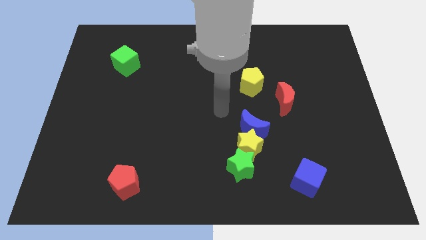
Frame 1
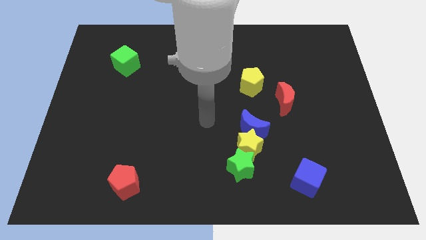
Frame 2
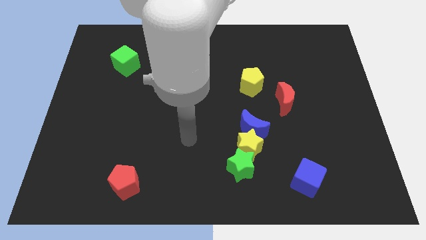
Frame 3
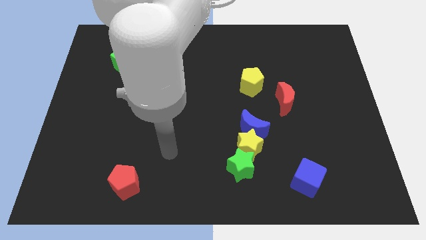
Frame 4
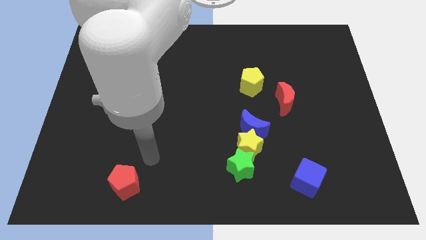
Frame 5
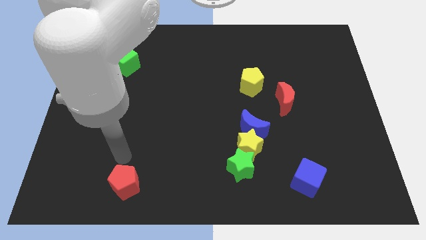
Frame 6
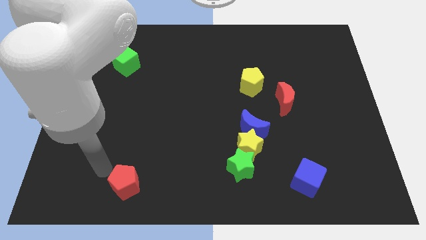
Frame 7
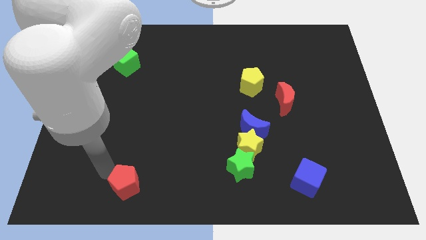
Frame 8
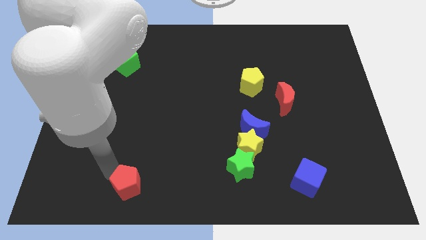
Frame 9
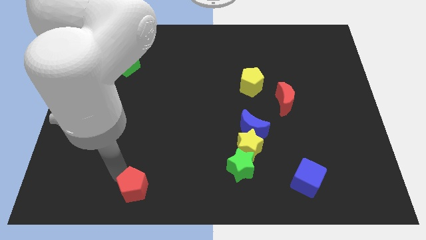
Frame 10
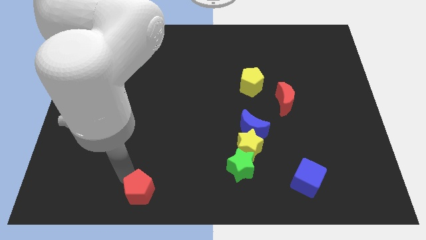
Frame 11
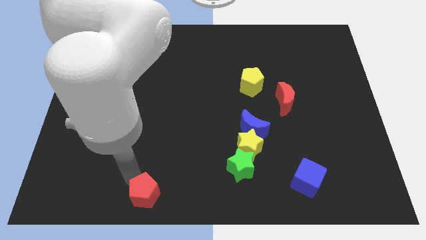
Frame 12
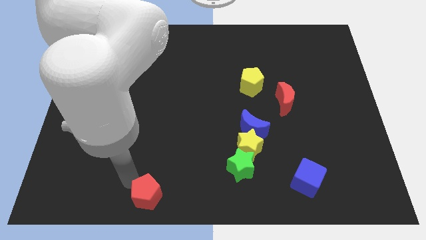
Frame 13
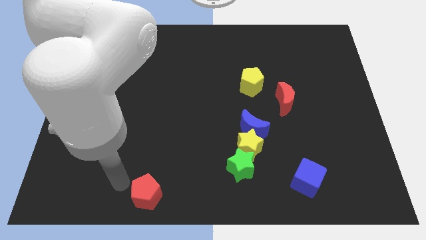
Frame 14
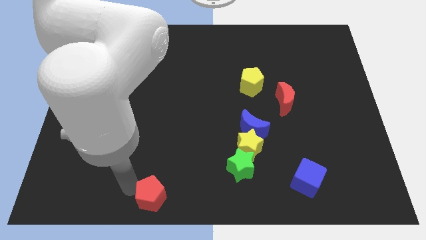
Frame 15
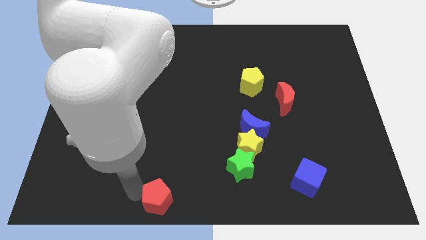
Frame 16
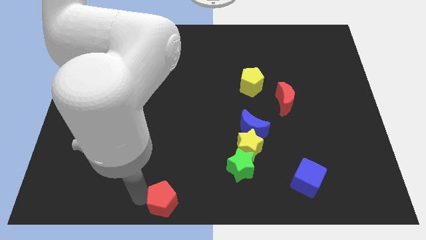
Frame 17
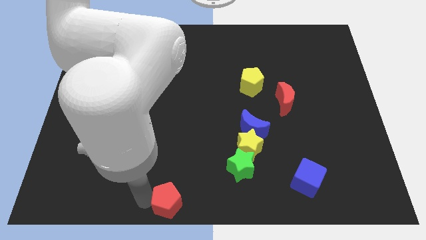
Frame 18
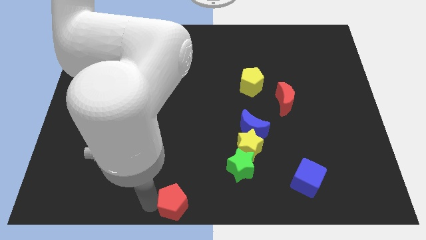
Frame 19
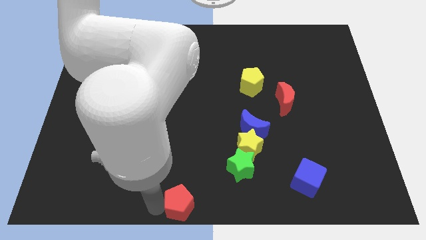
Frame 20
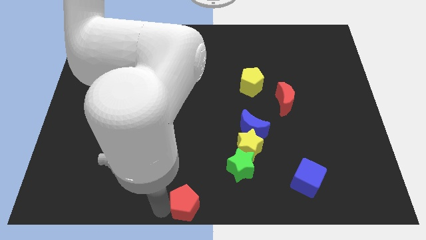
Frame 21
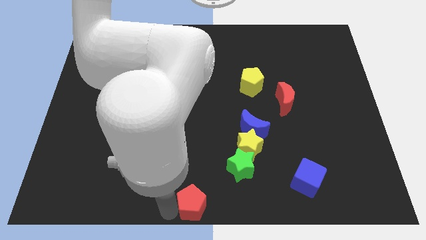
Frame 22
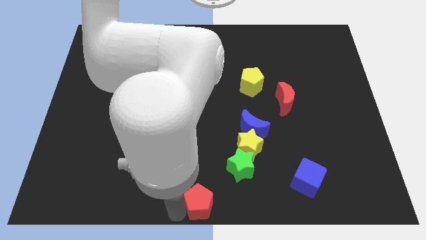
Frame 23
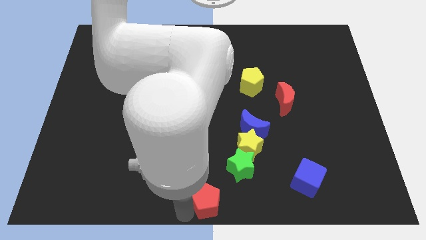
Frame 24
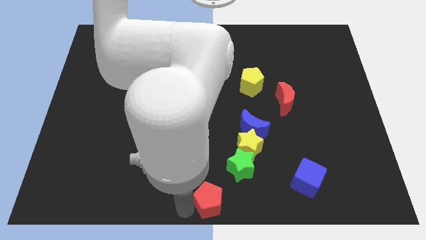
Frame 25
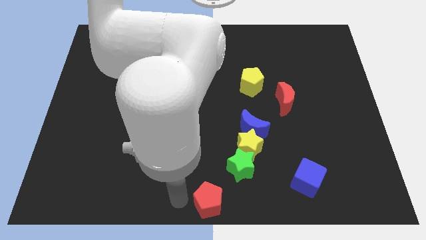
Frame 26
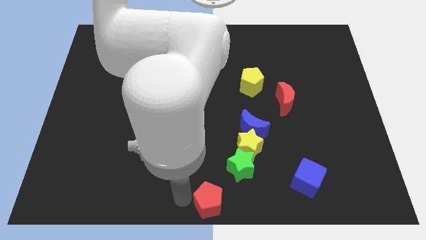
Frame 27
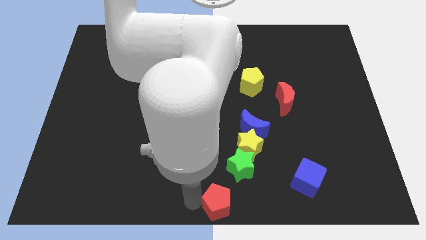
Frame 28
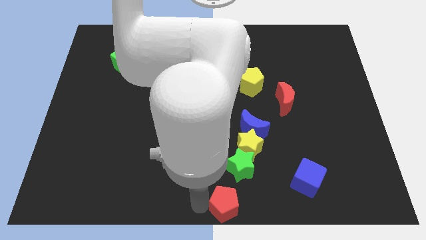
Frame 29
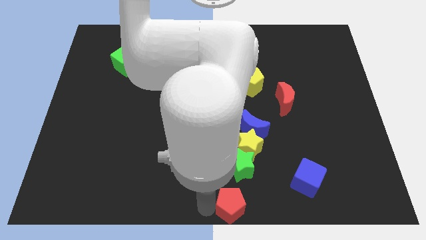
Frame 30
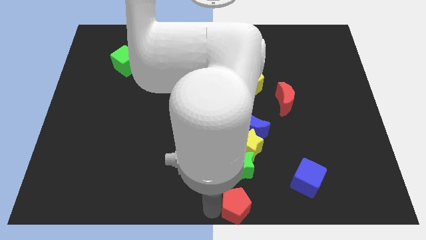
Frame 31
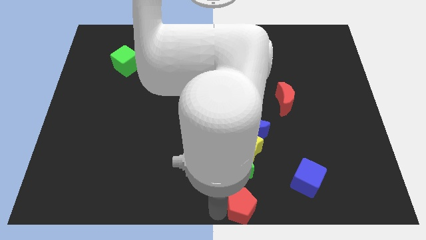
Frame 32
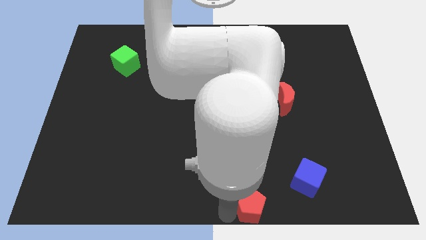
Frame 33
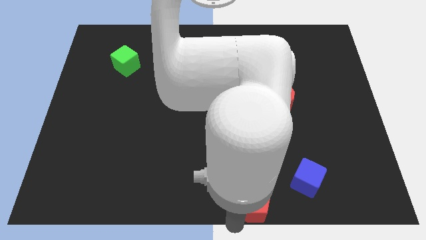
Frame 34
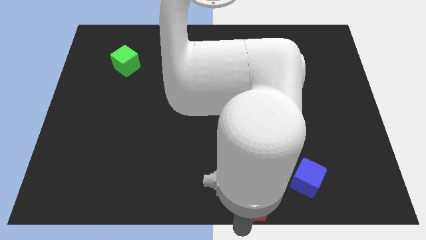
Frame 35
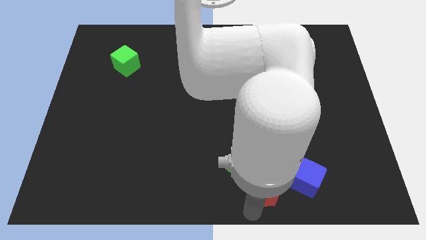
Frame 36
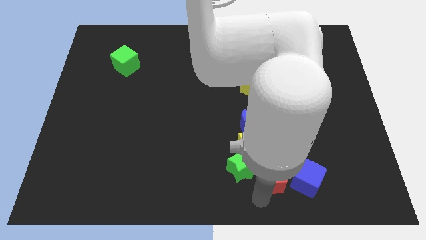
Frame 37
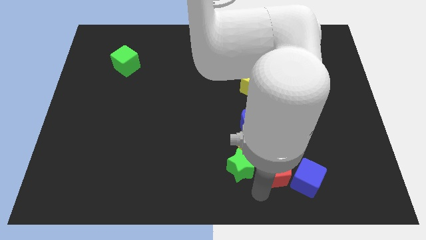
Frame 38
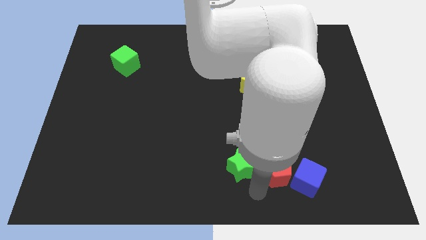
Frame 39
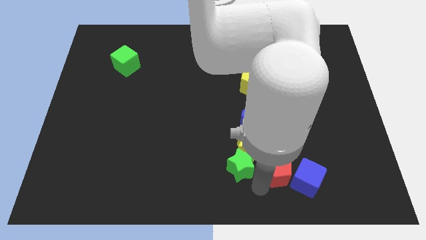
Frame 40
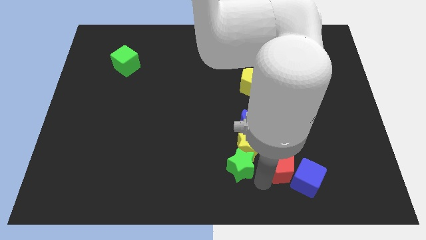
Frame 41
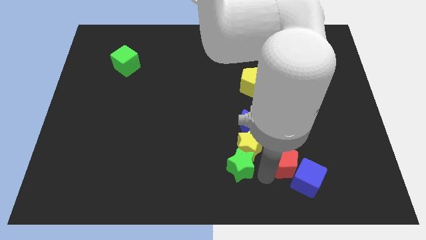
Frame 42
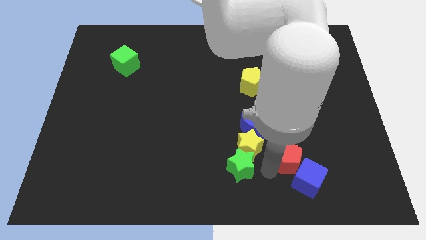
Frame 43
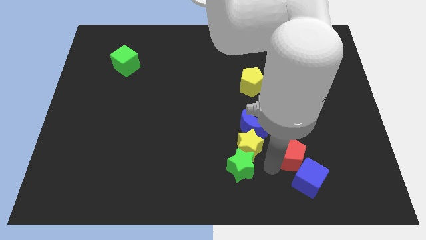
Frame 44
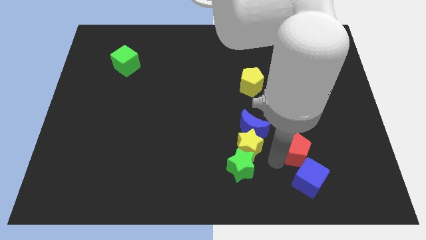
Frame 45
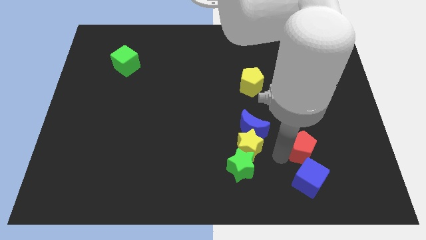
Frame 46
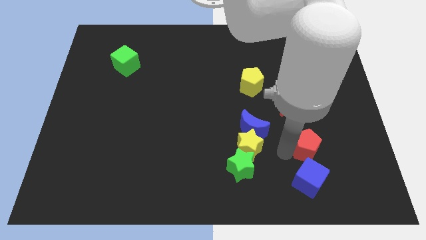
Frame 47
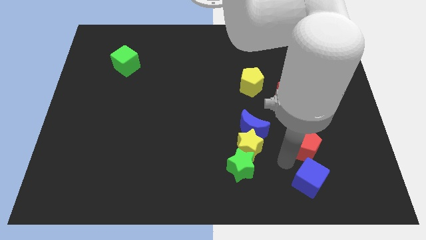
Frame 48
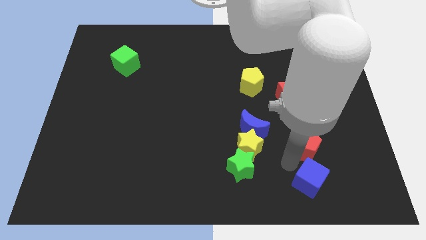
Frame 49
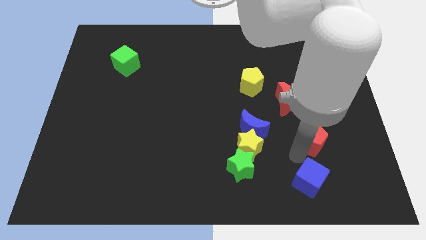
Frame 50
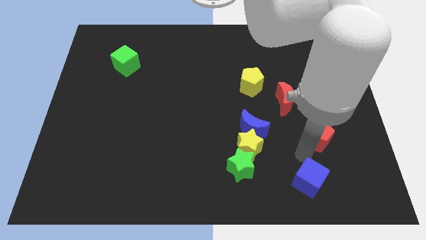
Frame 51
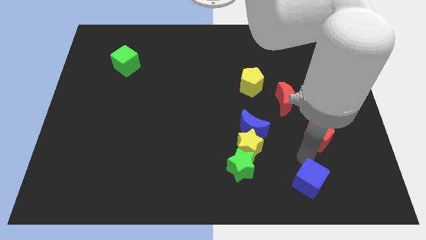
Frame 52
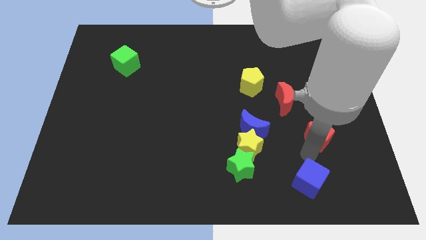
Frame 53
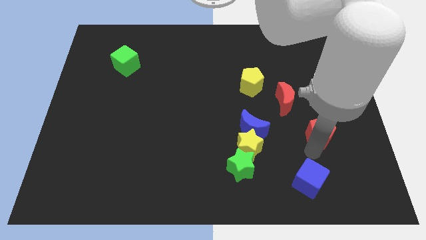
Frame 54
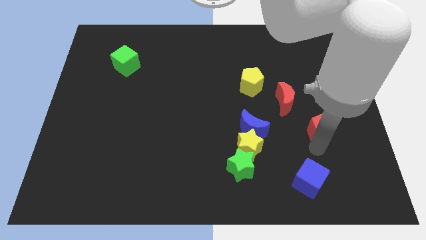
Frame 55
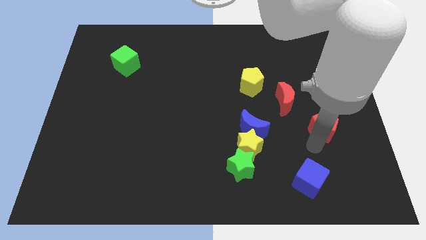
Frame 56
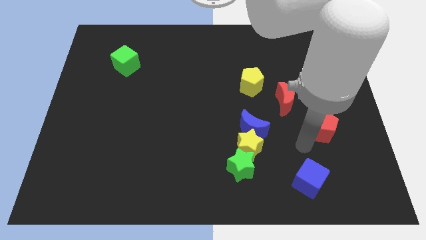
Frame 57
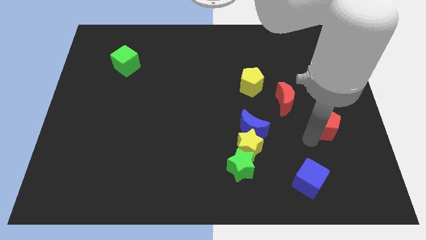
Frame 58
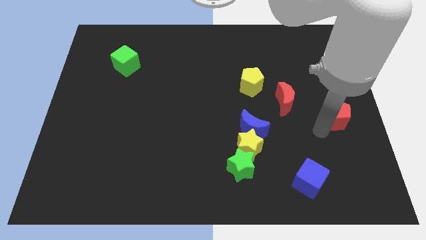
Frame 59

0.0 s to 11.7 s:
move the red pentagon to the center right

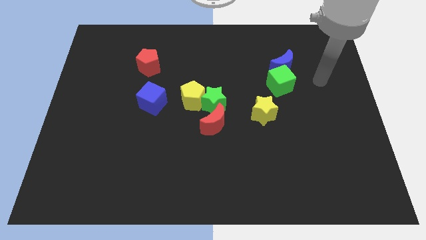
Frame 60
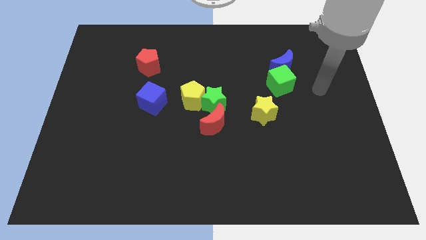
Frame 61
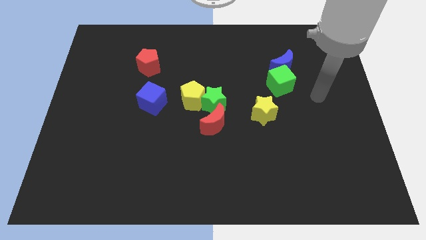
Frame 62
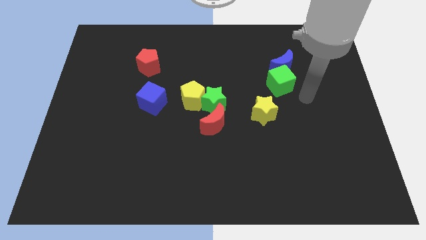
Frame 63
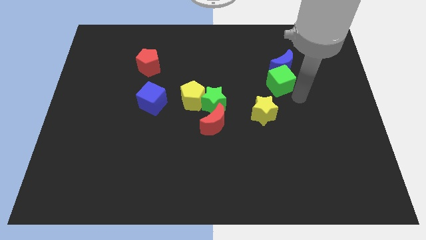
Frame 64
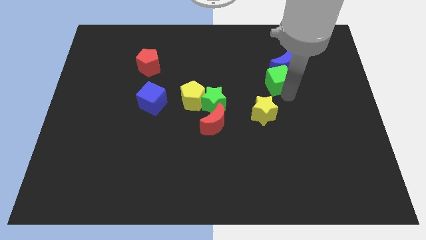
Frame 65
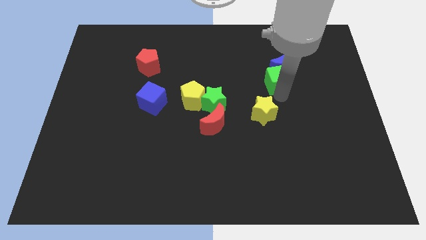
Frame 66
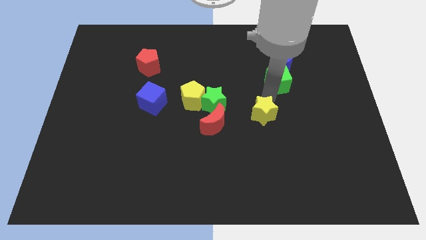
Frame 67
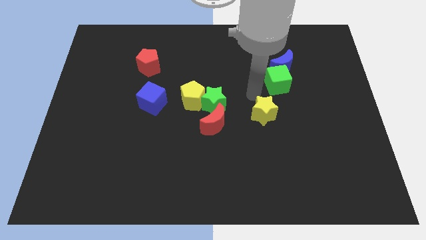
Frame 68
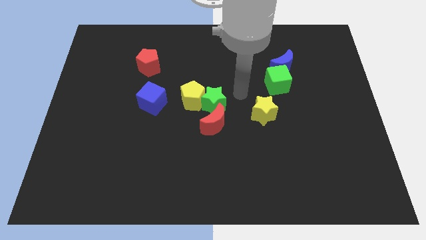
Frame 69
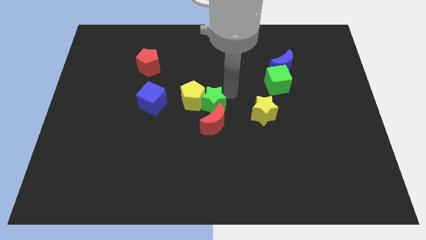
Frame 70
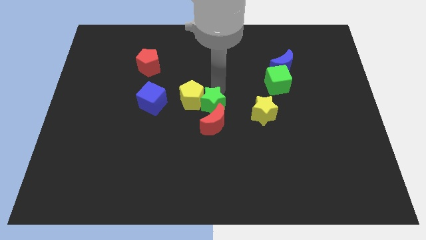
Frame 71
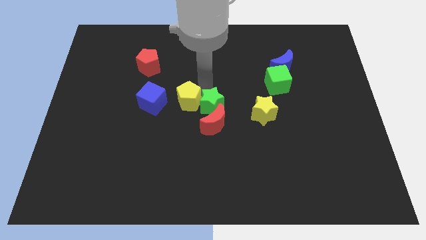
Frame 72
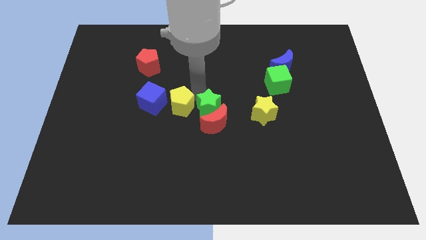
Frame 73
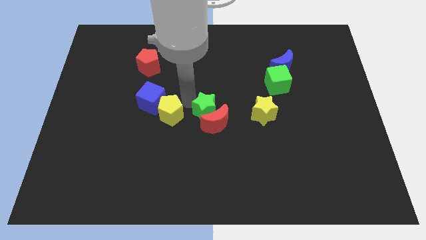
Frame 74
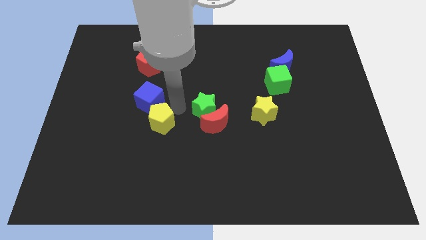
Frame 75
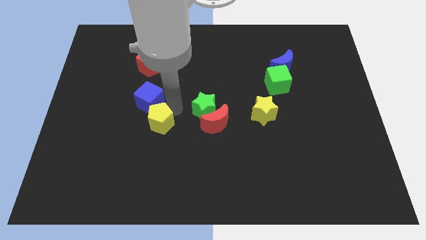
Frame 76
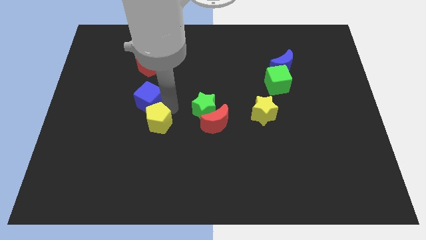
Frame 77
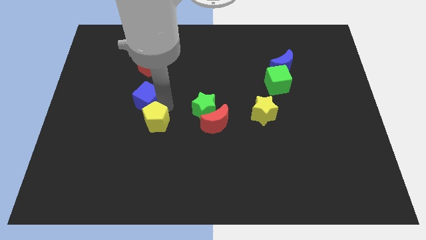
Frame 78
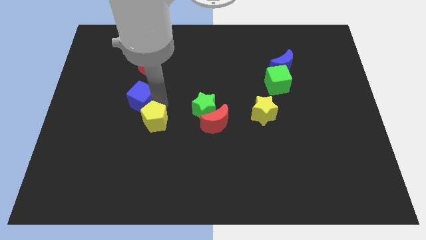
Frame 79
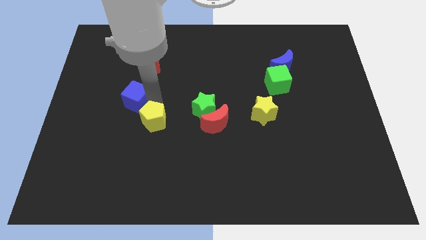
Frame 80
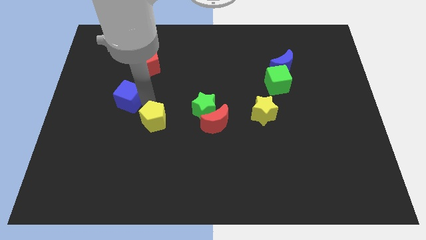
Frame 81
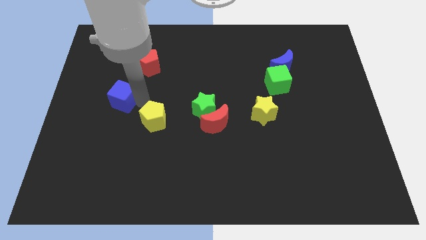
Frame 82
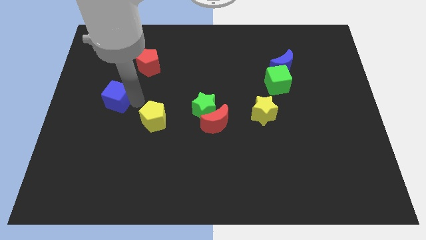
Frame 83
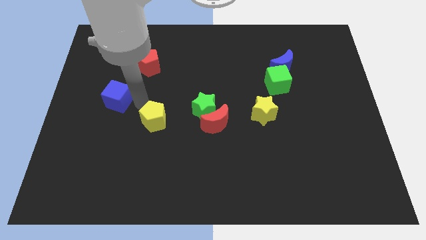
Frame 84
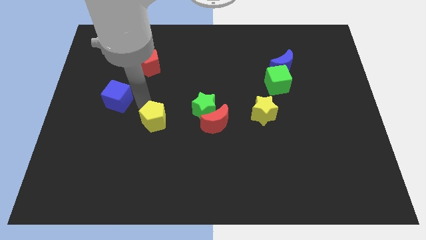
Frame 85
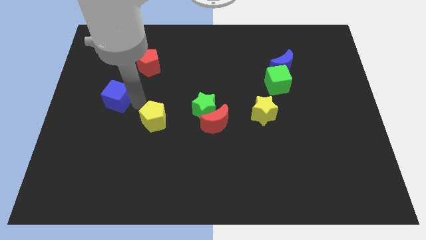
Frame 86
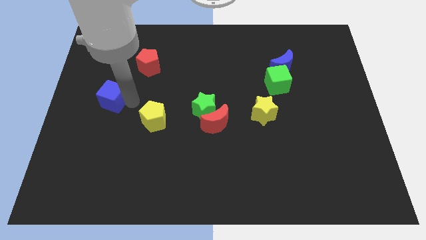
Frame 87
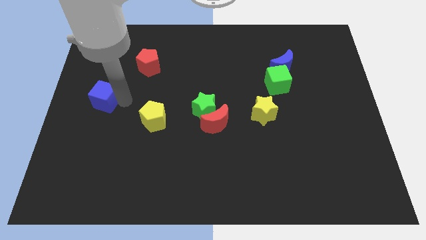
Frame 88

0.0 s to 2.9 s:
move the blue cube to the center left
